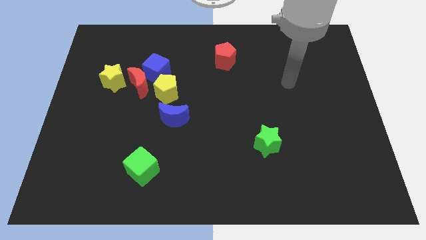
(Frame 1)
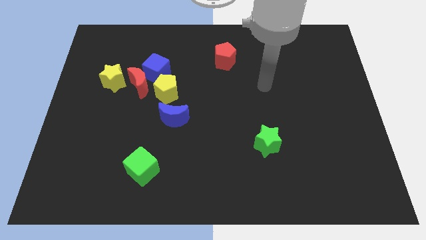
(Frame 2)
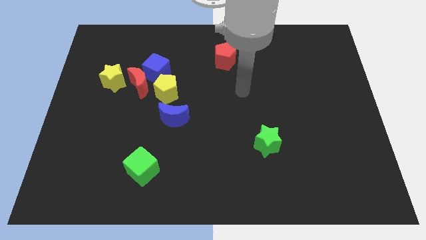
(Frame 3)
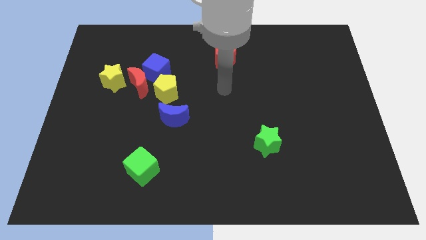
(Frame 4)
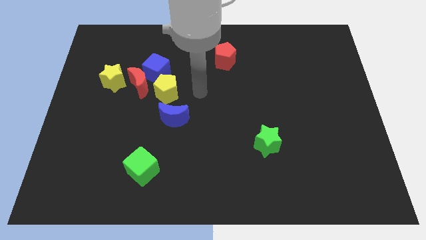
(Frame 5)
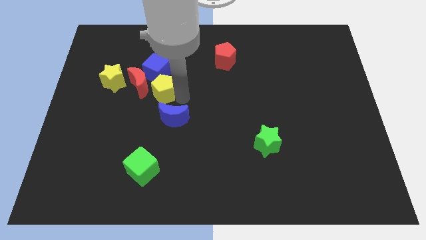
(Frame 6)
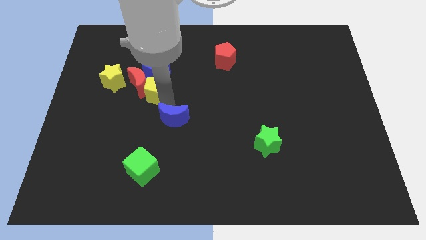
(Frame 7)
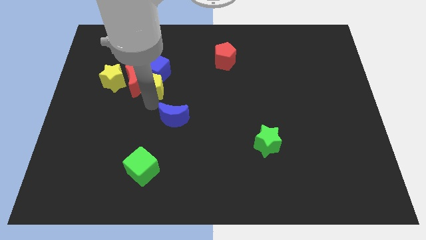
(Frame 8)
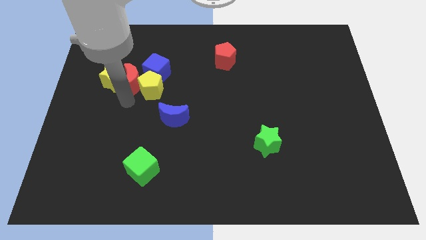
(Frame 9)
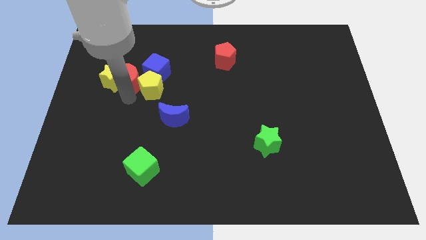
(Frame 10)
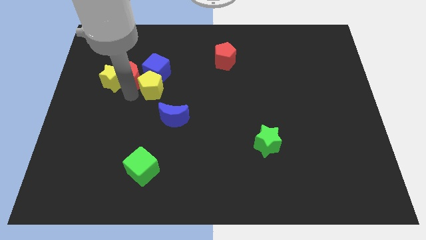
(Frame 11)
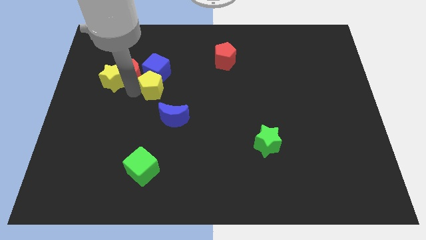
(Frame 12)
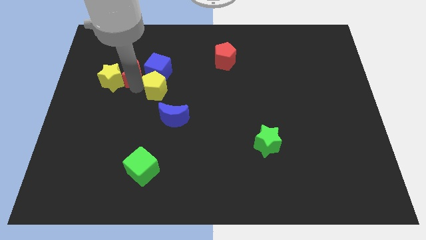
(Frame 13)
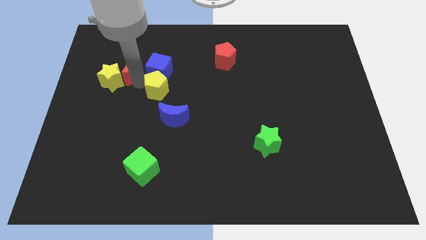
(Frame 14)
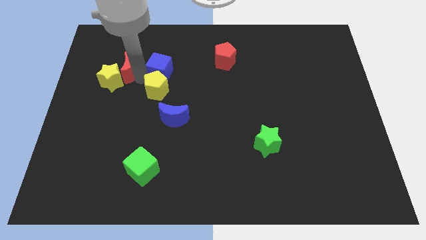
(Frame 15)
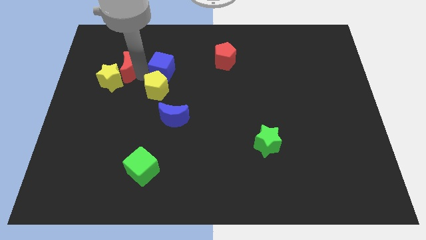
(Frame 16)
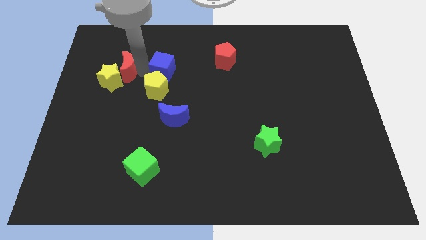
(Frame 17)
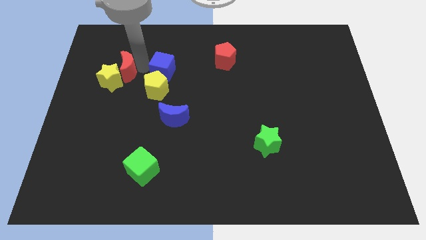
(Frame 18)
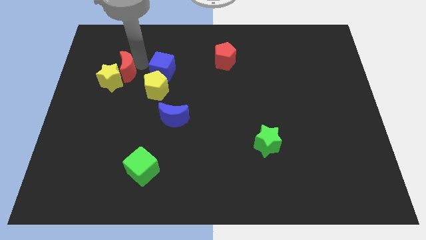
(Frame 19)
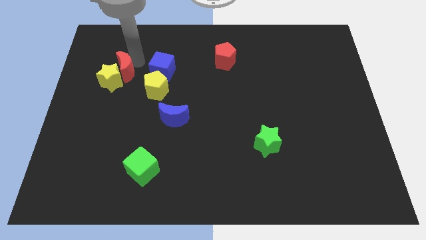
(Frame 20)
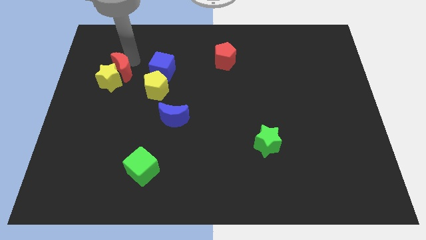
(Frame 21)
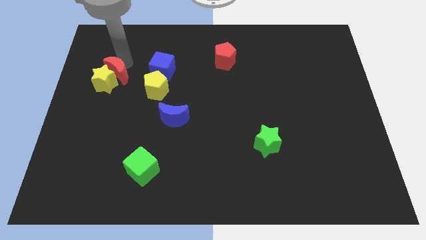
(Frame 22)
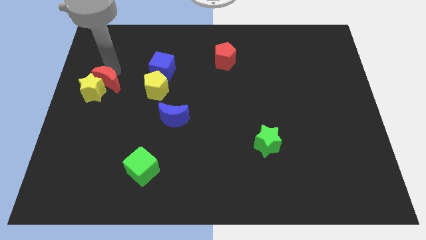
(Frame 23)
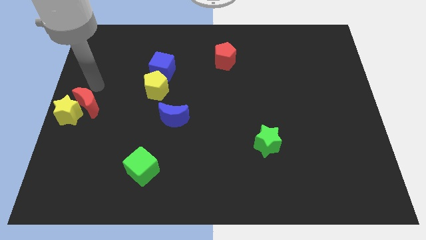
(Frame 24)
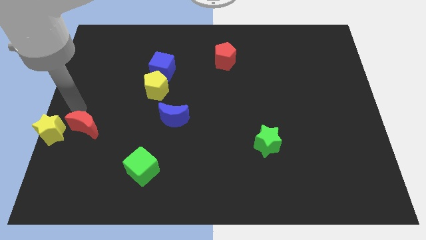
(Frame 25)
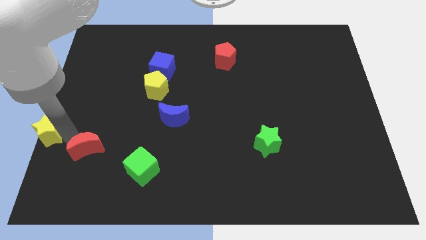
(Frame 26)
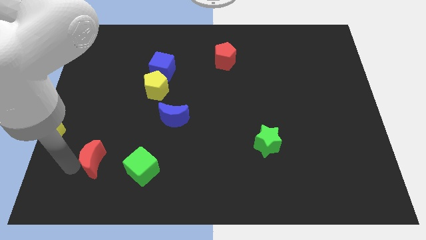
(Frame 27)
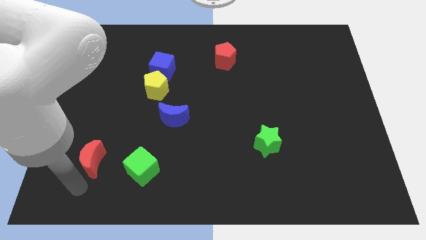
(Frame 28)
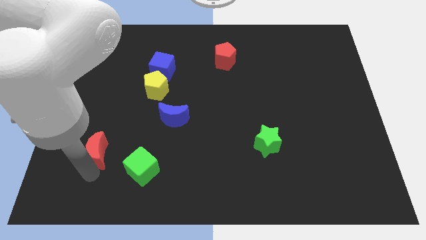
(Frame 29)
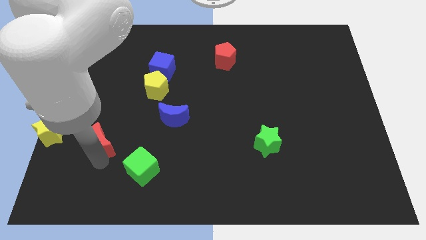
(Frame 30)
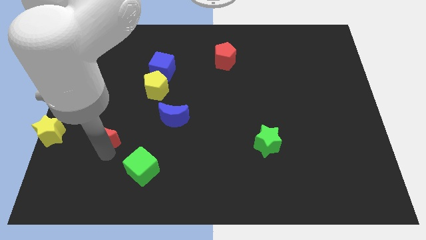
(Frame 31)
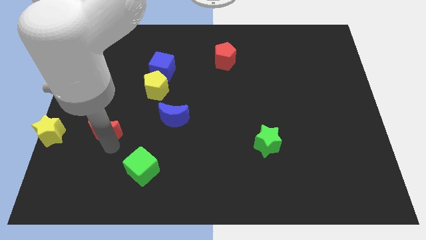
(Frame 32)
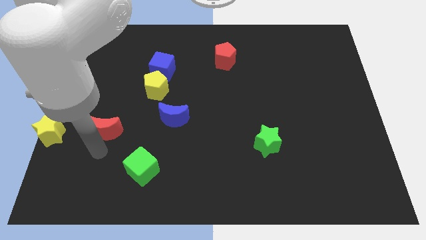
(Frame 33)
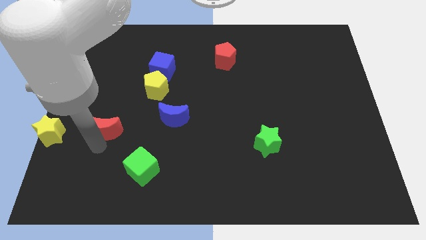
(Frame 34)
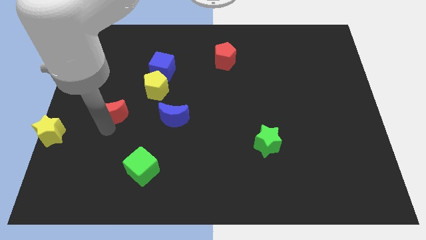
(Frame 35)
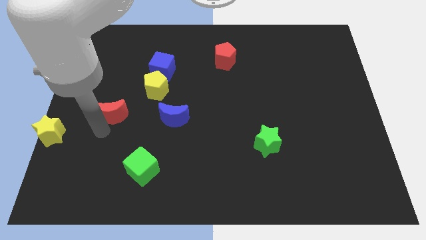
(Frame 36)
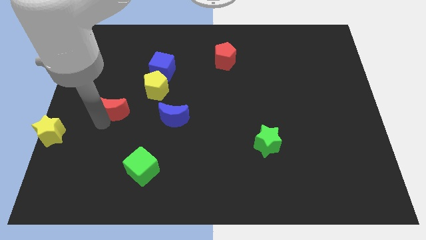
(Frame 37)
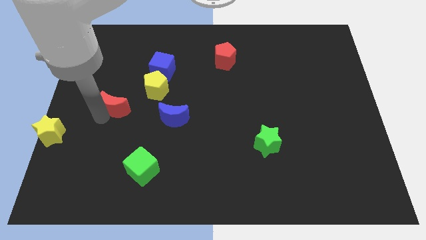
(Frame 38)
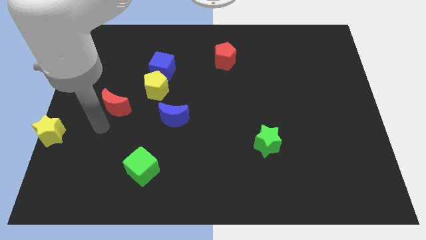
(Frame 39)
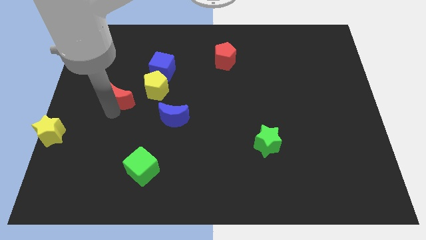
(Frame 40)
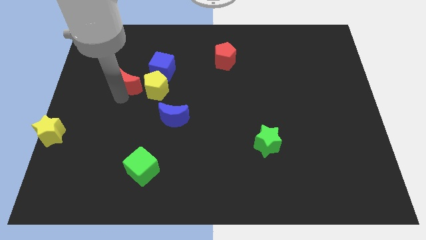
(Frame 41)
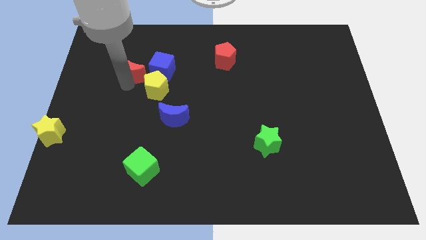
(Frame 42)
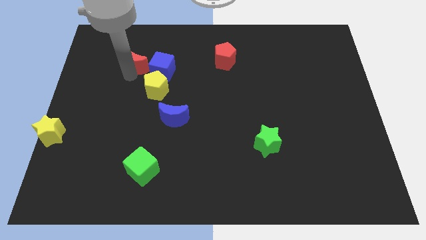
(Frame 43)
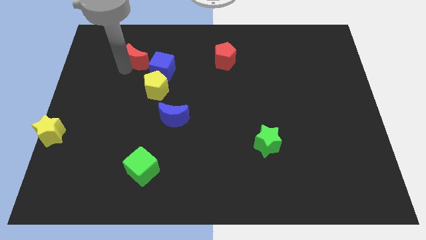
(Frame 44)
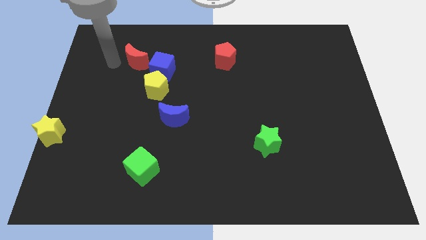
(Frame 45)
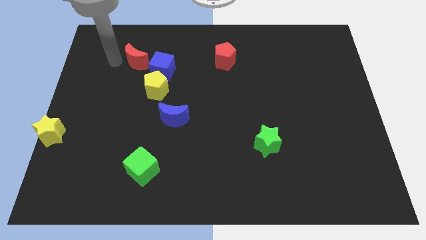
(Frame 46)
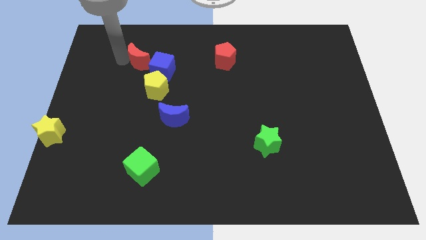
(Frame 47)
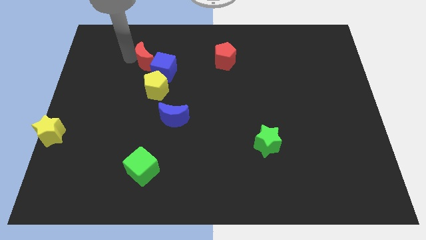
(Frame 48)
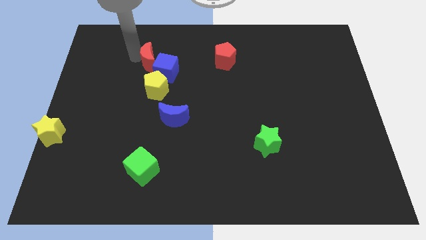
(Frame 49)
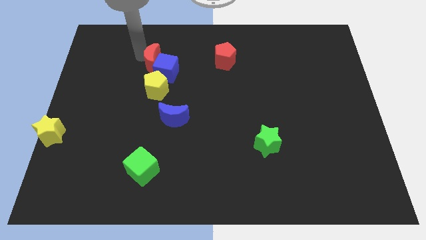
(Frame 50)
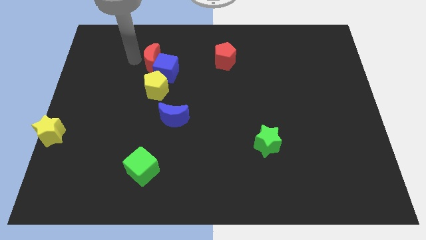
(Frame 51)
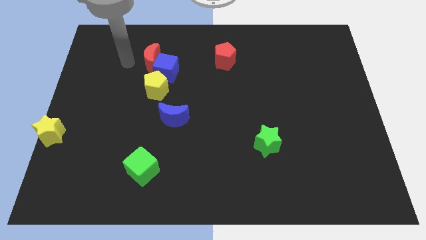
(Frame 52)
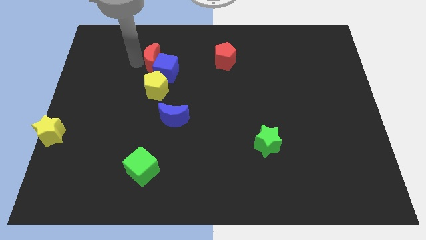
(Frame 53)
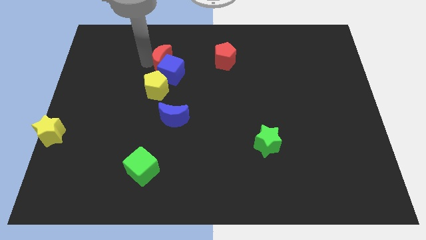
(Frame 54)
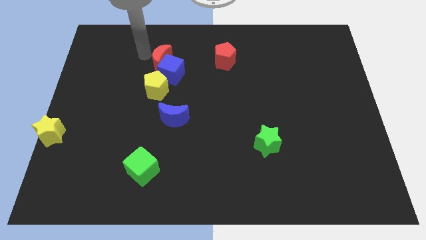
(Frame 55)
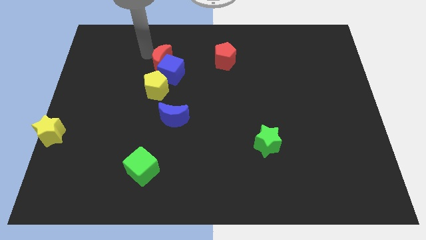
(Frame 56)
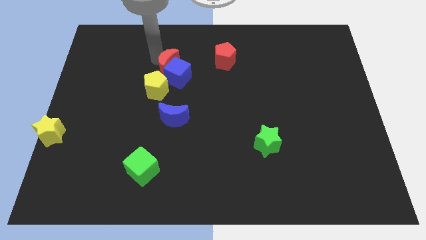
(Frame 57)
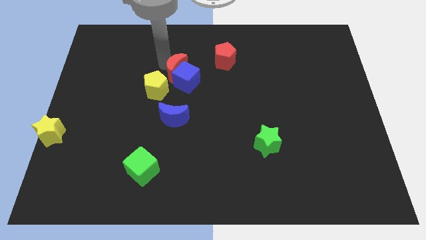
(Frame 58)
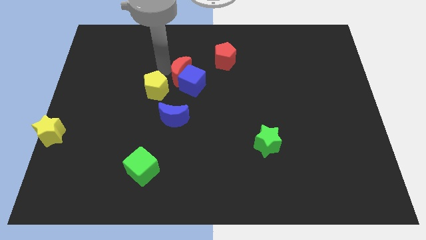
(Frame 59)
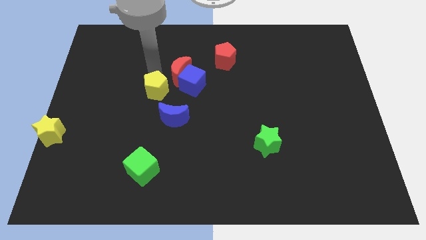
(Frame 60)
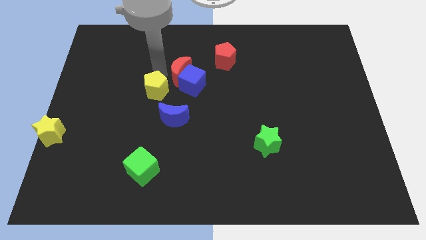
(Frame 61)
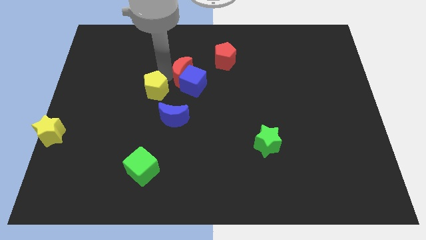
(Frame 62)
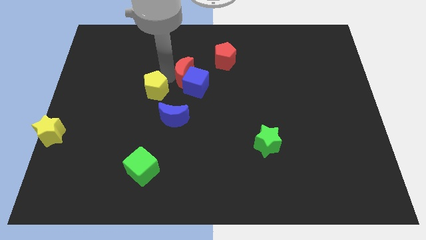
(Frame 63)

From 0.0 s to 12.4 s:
slide the red moon to the bottom left side of the red pentagon
